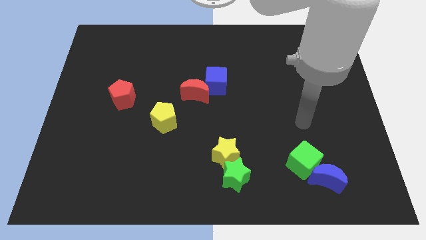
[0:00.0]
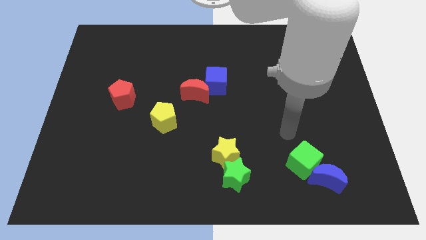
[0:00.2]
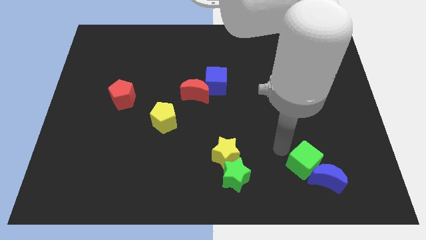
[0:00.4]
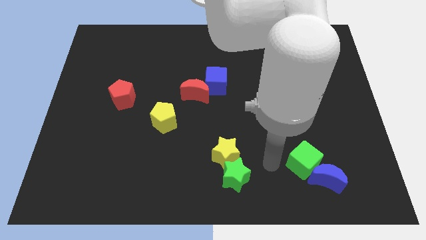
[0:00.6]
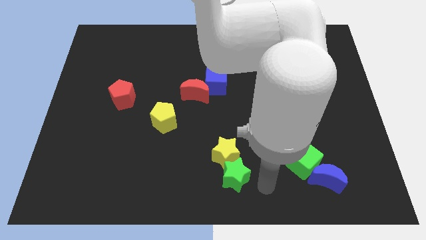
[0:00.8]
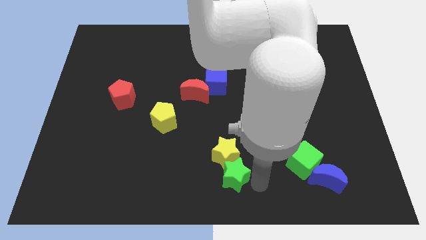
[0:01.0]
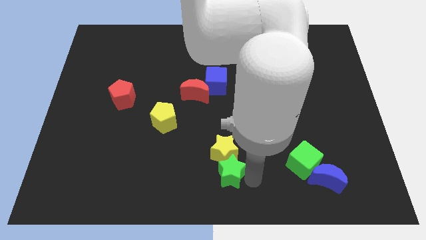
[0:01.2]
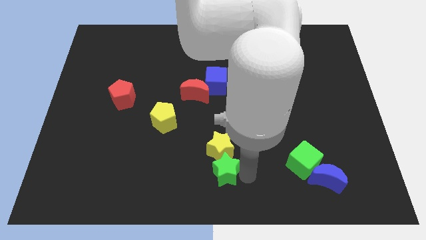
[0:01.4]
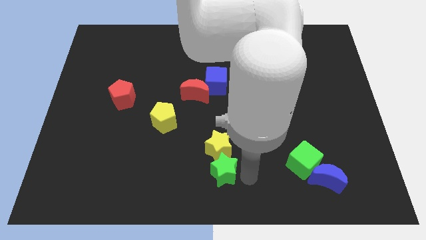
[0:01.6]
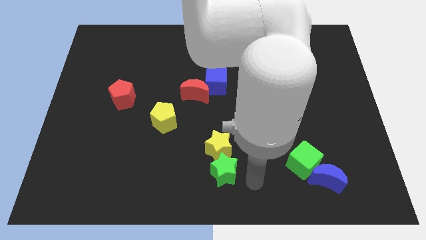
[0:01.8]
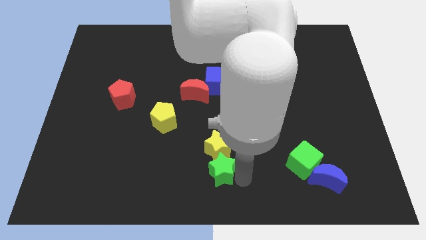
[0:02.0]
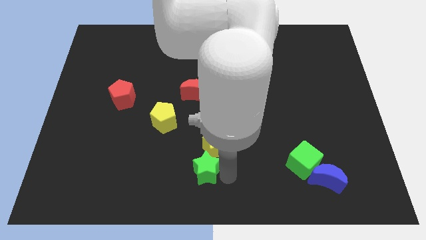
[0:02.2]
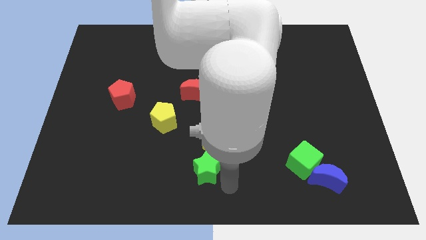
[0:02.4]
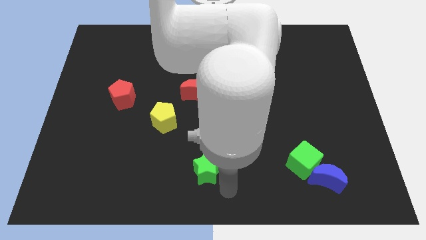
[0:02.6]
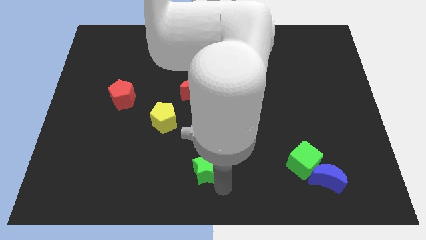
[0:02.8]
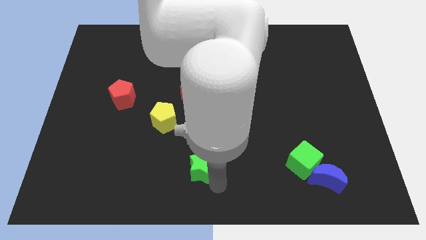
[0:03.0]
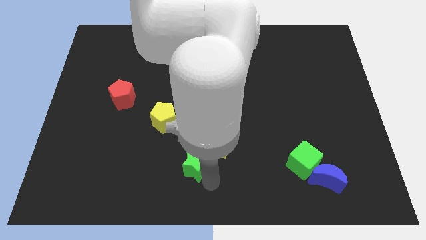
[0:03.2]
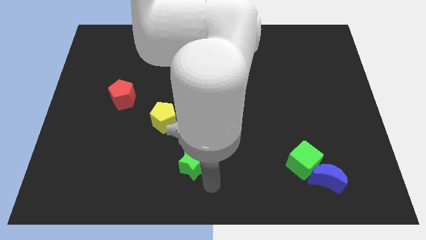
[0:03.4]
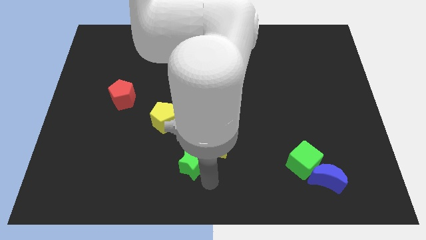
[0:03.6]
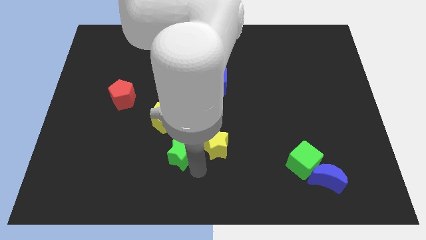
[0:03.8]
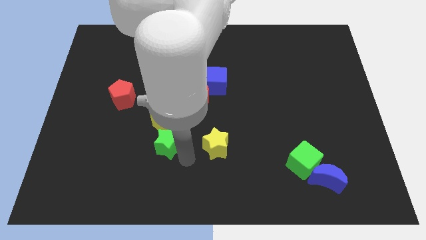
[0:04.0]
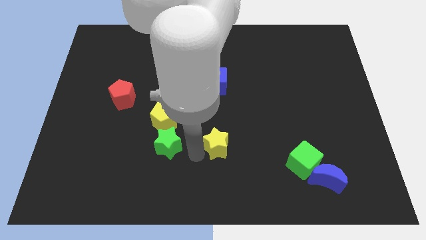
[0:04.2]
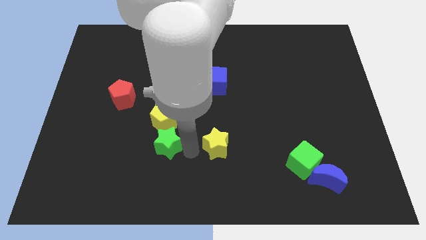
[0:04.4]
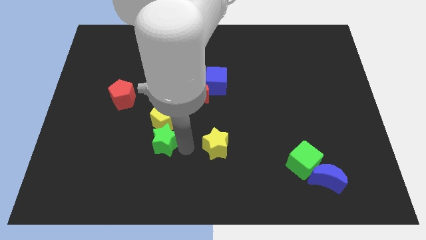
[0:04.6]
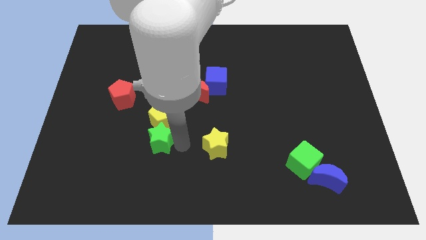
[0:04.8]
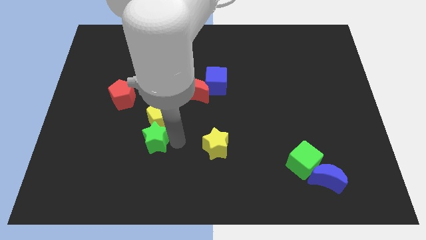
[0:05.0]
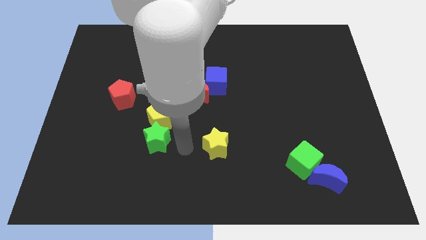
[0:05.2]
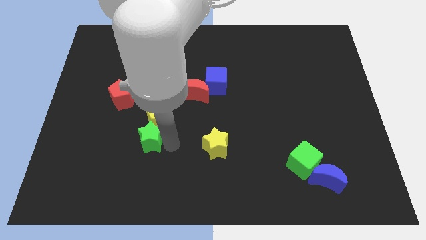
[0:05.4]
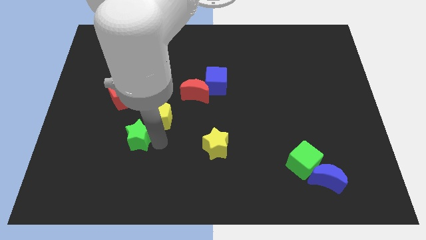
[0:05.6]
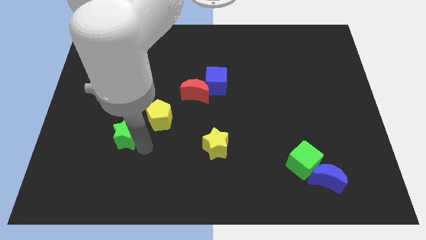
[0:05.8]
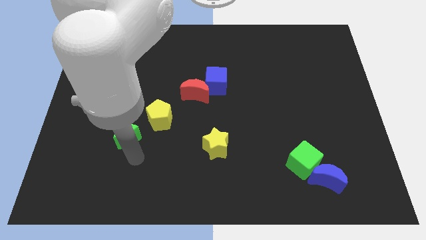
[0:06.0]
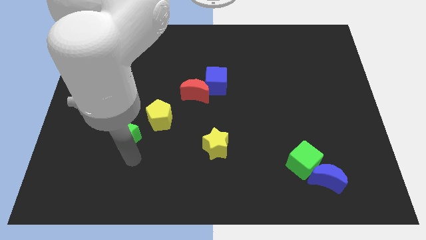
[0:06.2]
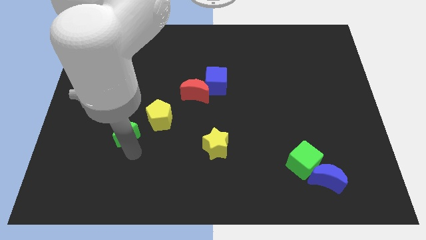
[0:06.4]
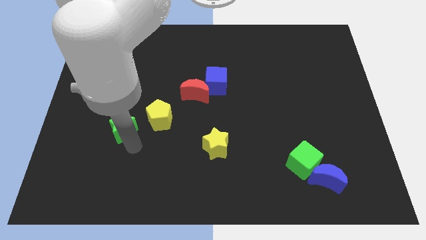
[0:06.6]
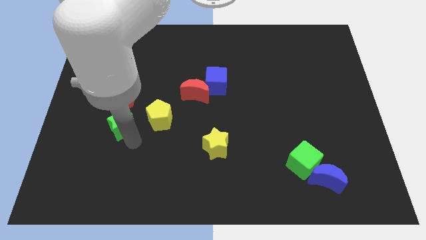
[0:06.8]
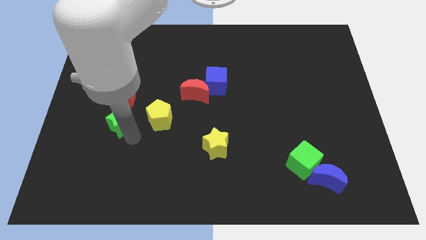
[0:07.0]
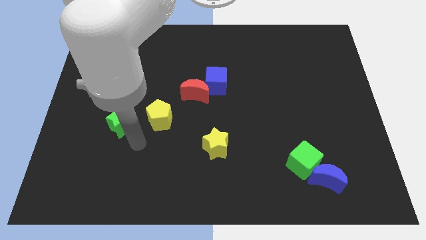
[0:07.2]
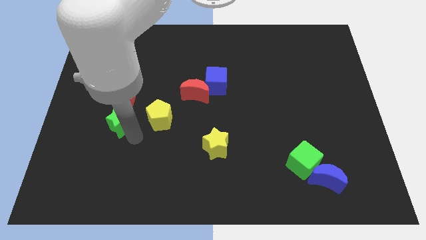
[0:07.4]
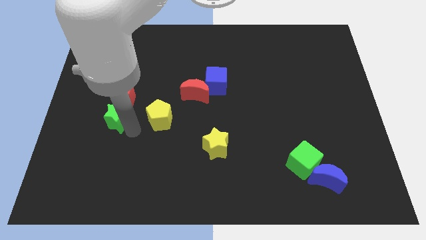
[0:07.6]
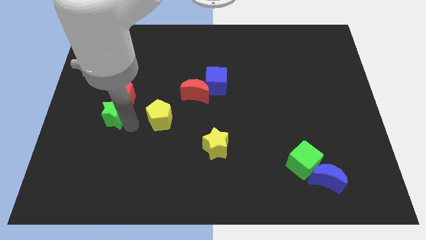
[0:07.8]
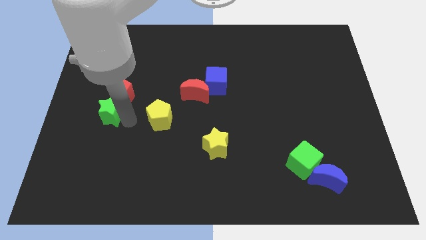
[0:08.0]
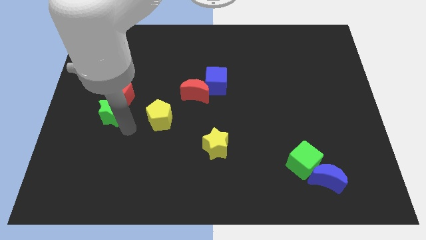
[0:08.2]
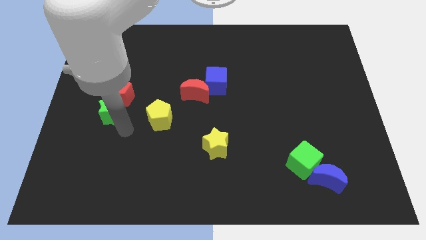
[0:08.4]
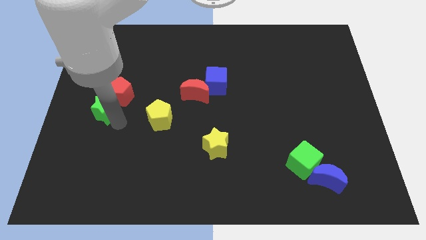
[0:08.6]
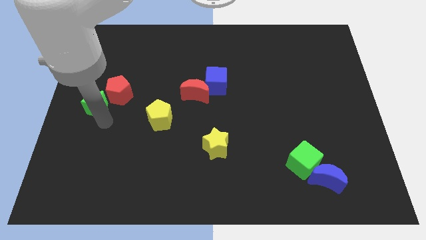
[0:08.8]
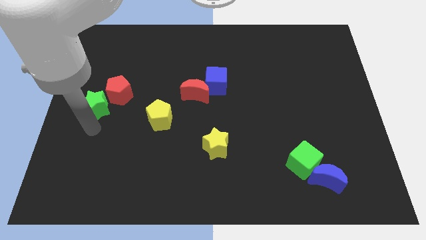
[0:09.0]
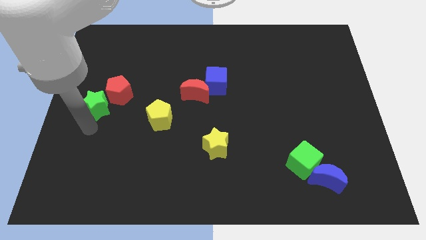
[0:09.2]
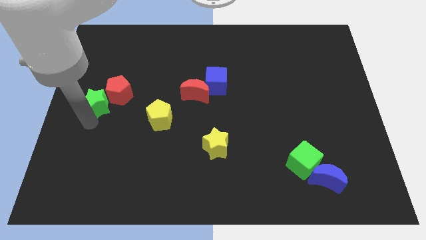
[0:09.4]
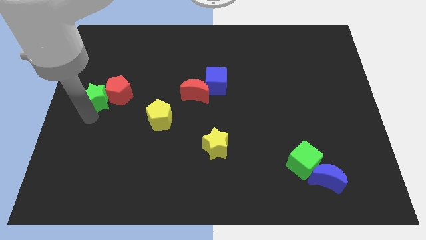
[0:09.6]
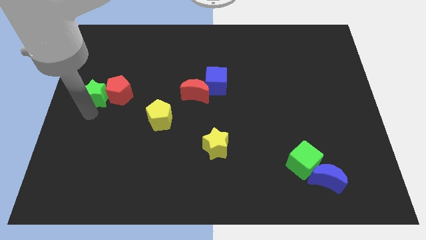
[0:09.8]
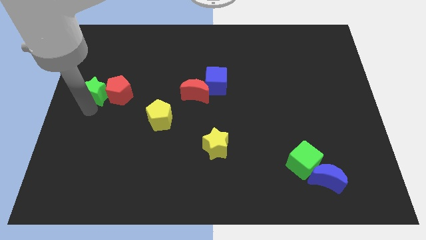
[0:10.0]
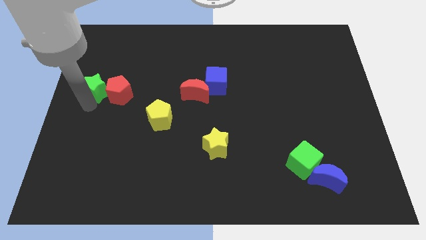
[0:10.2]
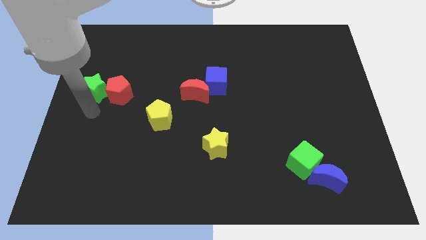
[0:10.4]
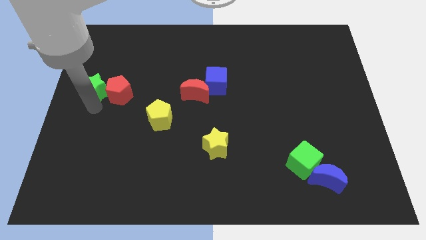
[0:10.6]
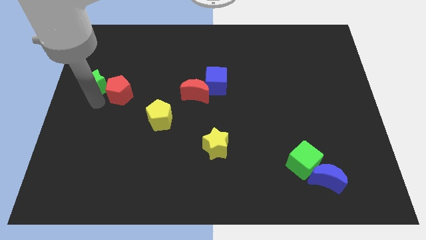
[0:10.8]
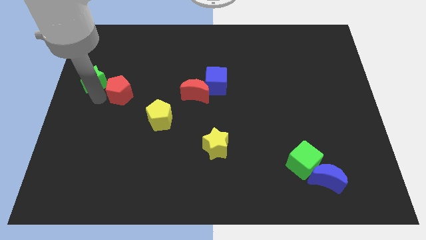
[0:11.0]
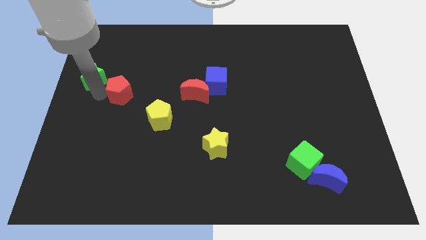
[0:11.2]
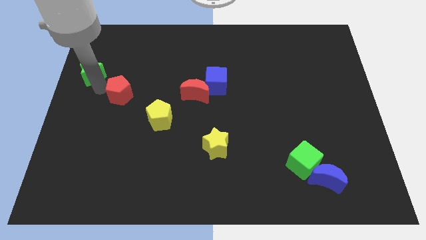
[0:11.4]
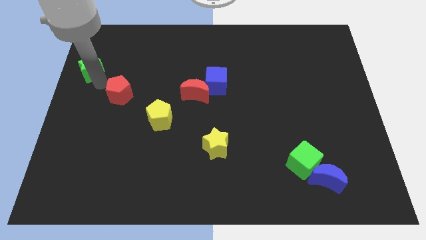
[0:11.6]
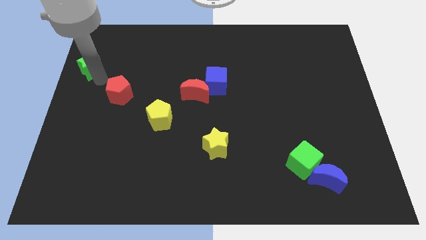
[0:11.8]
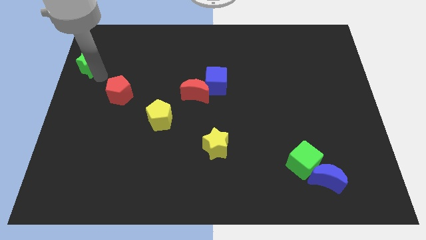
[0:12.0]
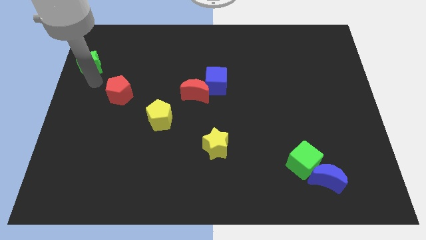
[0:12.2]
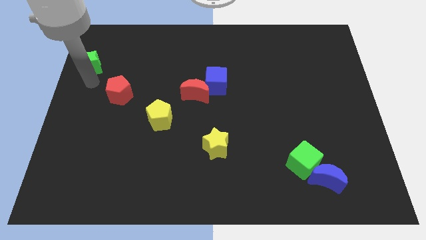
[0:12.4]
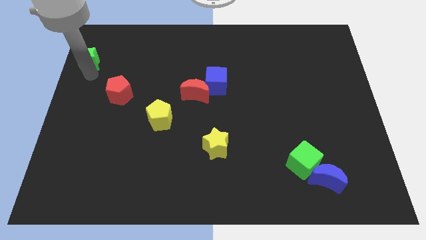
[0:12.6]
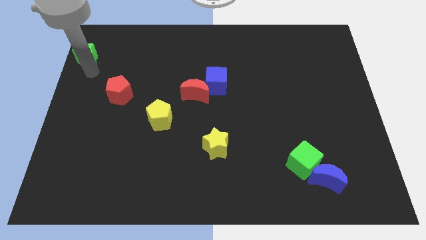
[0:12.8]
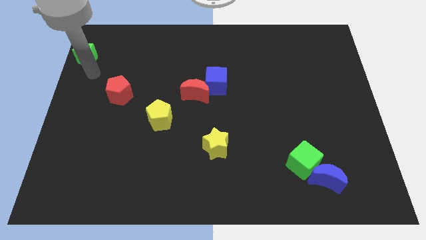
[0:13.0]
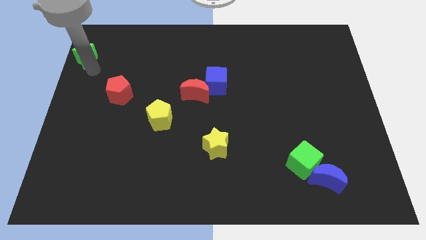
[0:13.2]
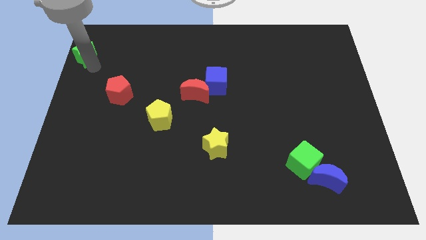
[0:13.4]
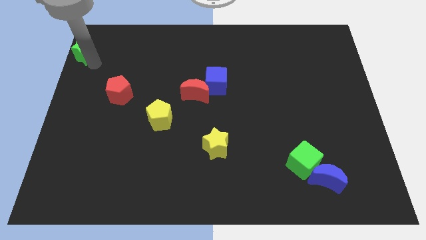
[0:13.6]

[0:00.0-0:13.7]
put the green star to the top left of the board
